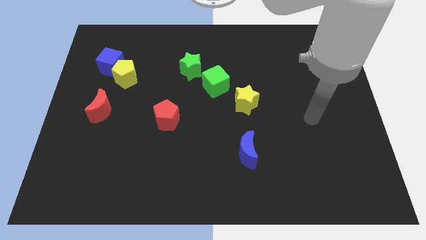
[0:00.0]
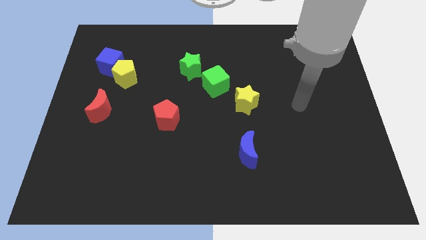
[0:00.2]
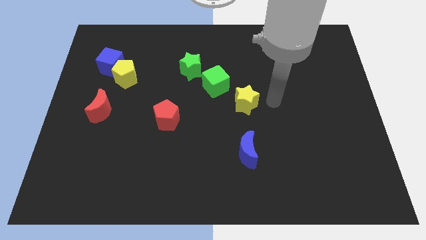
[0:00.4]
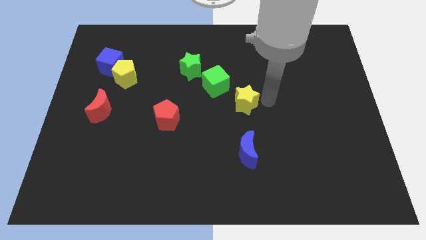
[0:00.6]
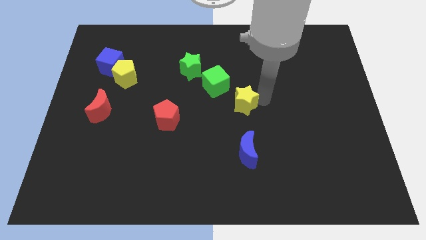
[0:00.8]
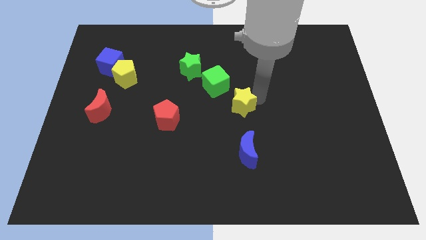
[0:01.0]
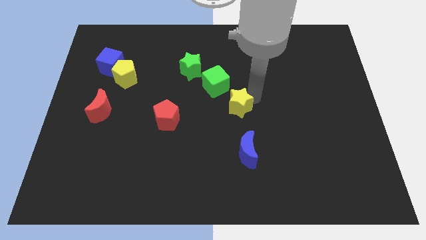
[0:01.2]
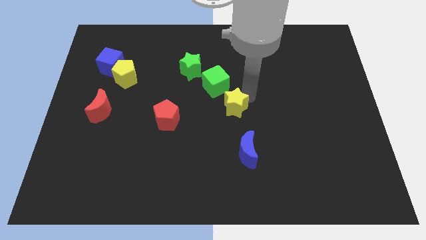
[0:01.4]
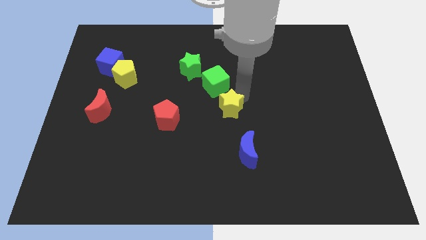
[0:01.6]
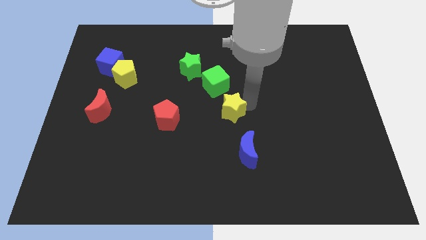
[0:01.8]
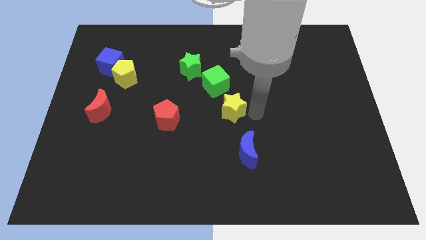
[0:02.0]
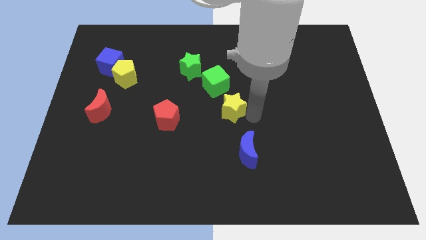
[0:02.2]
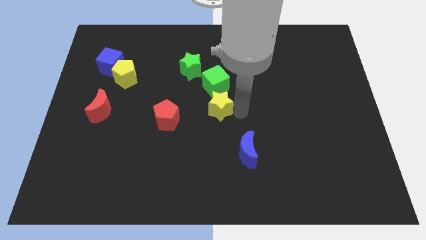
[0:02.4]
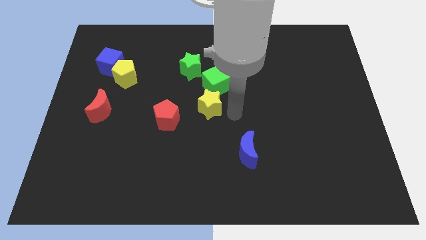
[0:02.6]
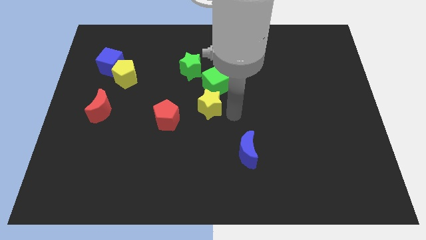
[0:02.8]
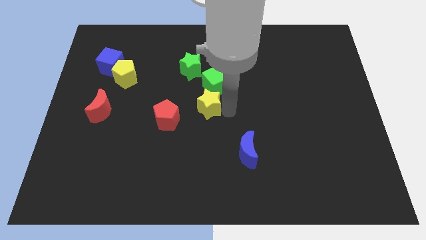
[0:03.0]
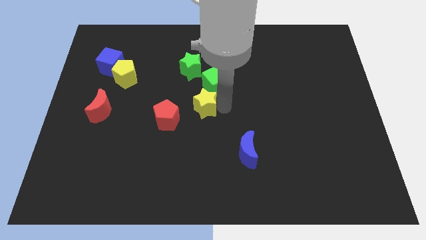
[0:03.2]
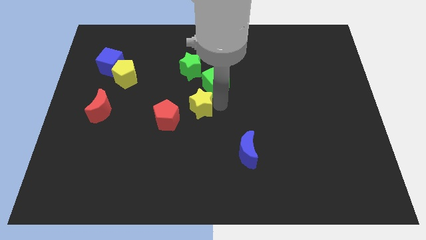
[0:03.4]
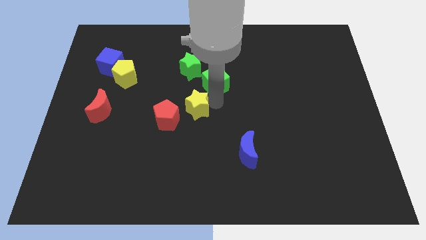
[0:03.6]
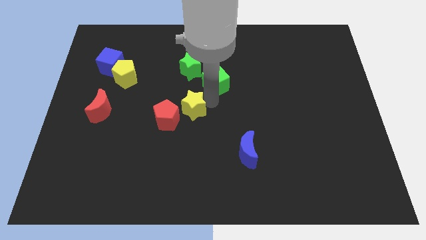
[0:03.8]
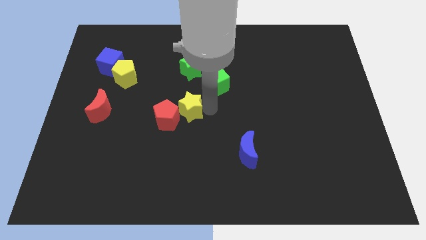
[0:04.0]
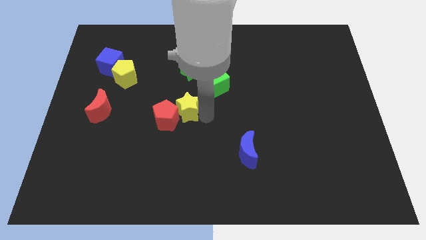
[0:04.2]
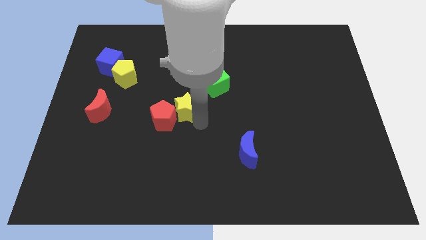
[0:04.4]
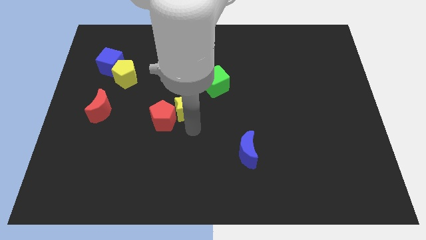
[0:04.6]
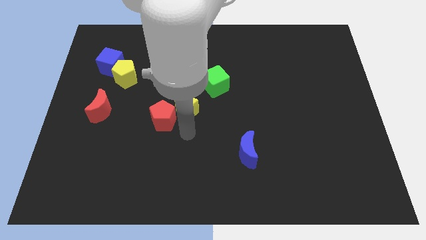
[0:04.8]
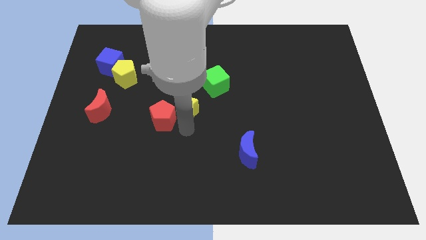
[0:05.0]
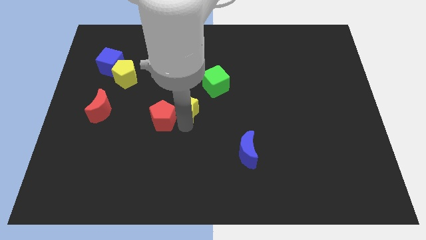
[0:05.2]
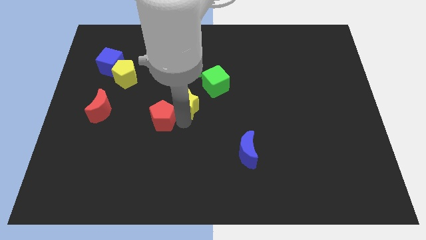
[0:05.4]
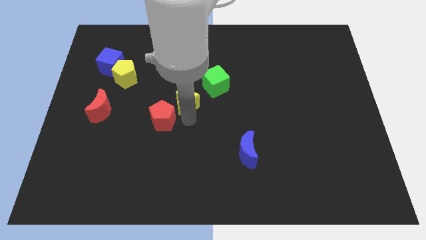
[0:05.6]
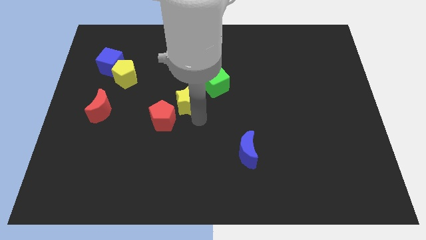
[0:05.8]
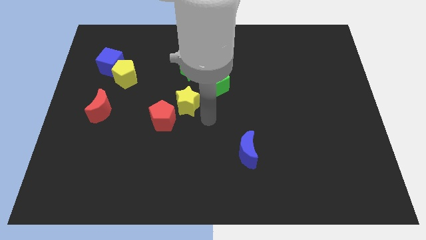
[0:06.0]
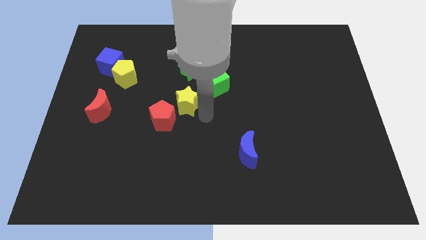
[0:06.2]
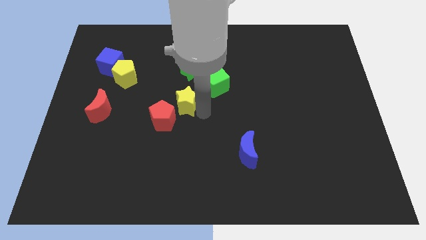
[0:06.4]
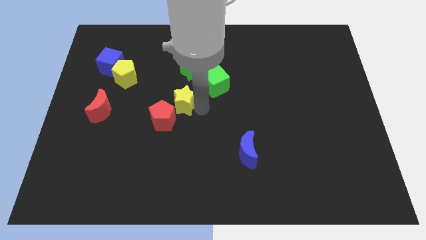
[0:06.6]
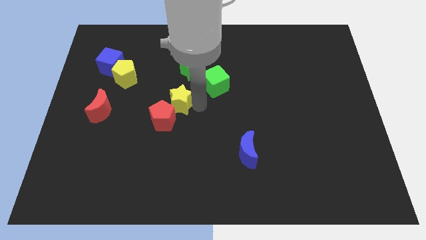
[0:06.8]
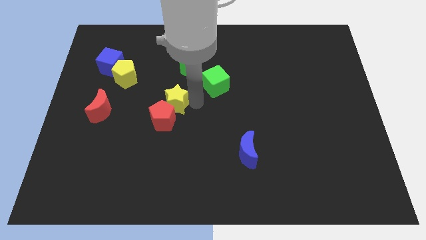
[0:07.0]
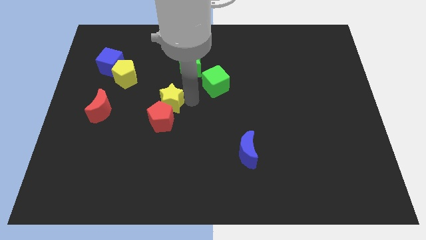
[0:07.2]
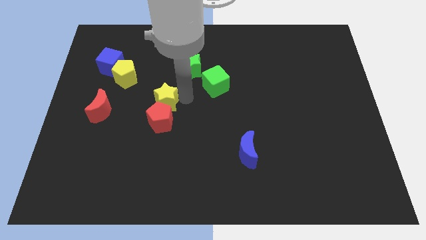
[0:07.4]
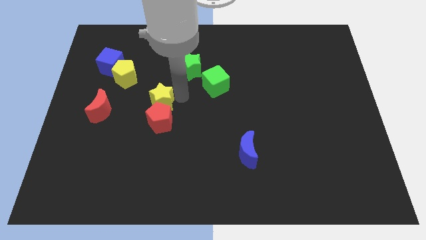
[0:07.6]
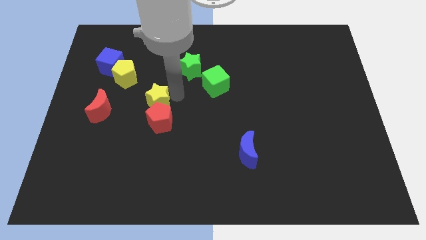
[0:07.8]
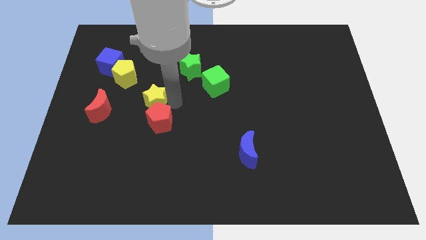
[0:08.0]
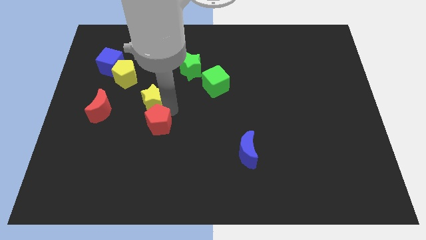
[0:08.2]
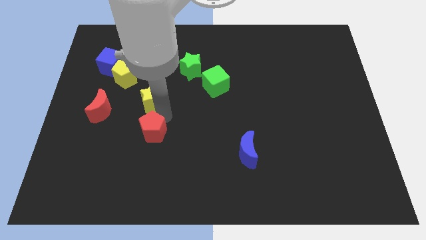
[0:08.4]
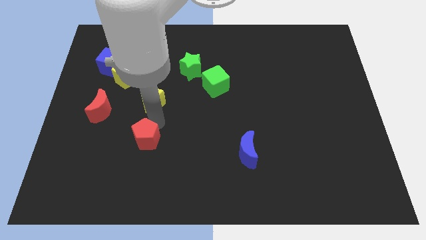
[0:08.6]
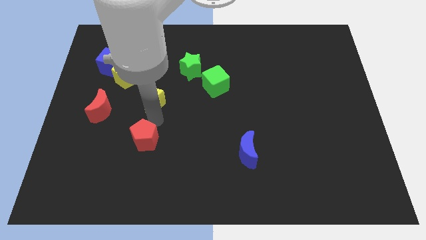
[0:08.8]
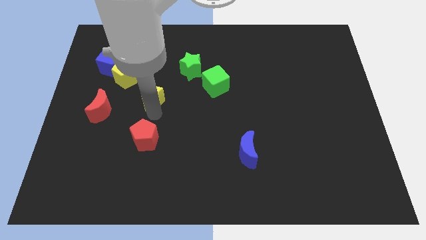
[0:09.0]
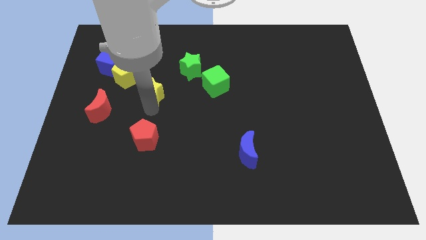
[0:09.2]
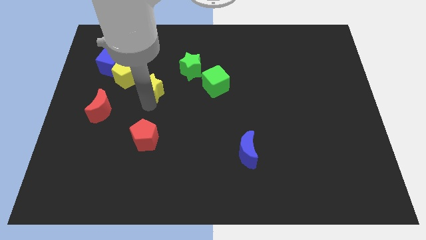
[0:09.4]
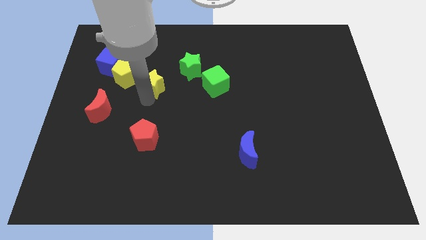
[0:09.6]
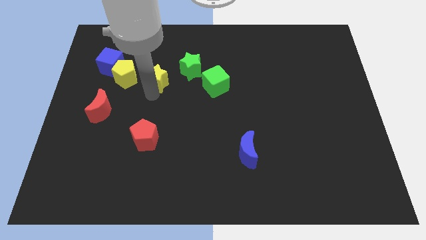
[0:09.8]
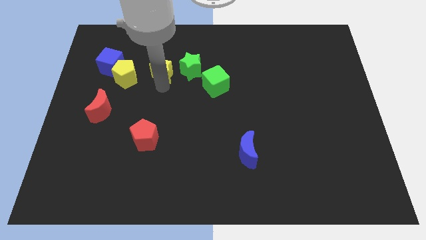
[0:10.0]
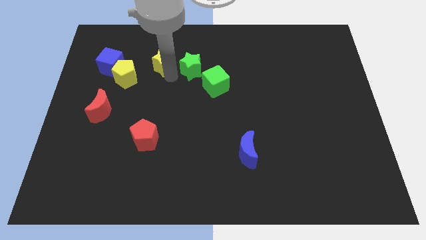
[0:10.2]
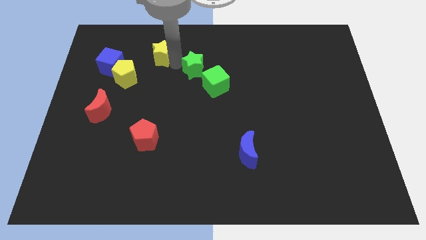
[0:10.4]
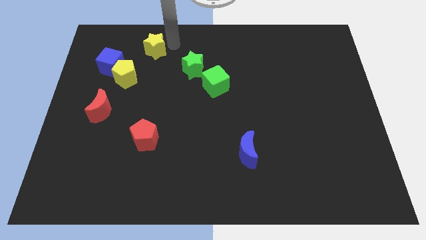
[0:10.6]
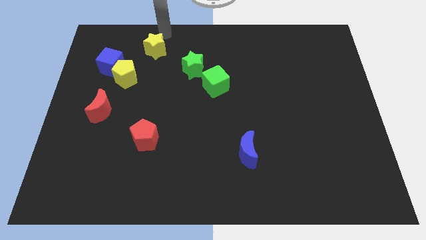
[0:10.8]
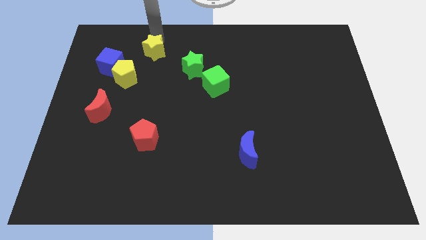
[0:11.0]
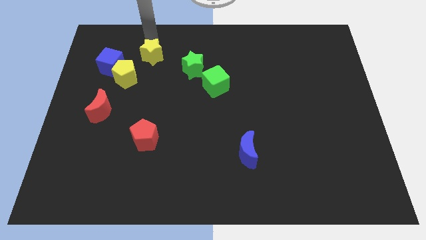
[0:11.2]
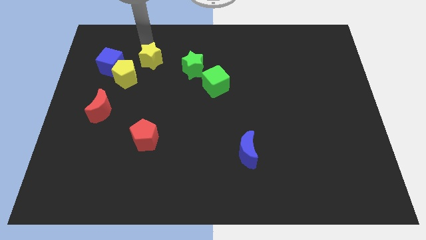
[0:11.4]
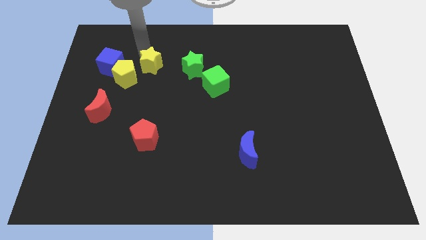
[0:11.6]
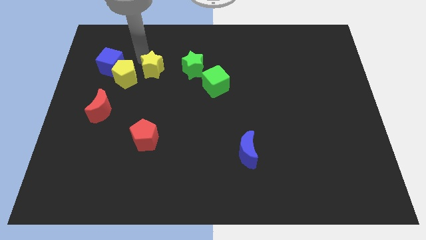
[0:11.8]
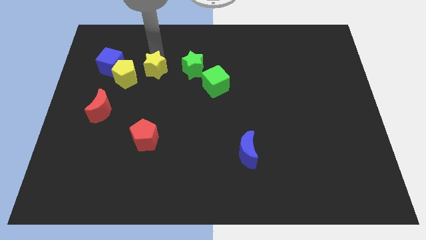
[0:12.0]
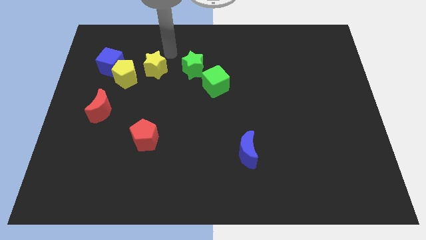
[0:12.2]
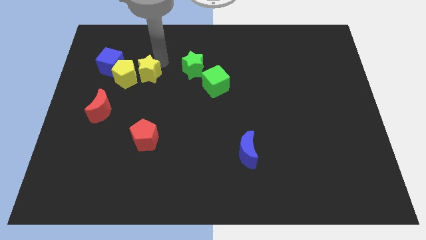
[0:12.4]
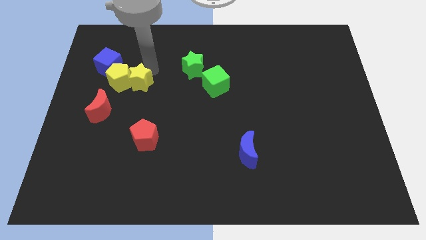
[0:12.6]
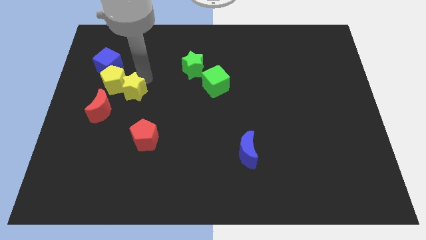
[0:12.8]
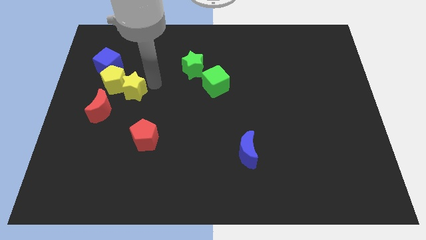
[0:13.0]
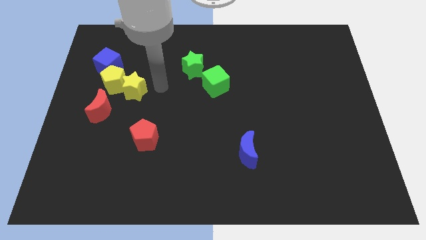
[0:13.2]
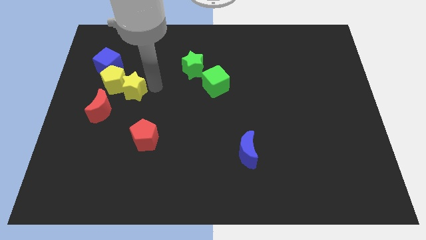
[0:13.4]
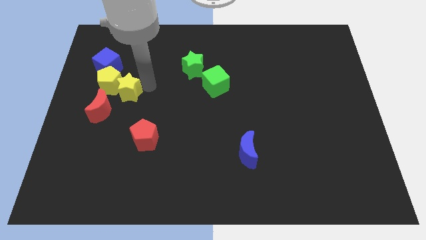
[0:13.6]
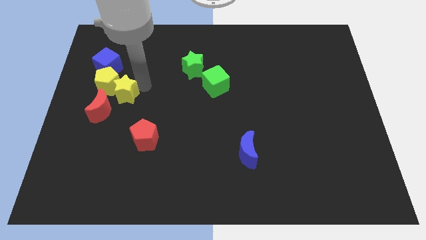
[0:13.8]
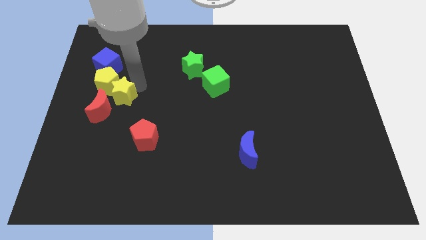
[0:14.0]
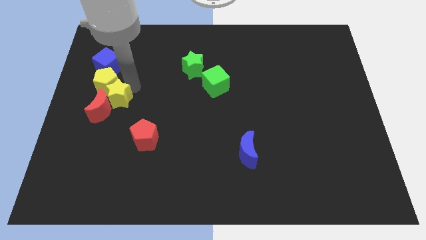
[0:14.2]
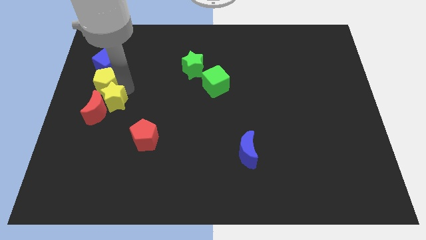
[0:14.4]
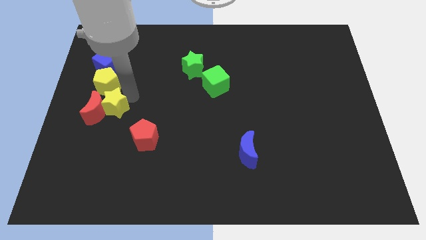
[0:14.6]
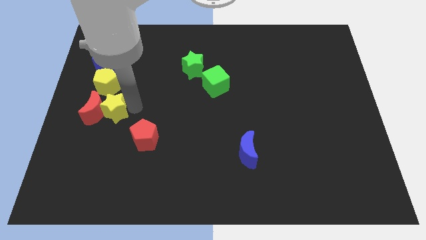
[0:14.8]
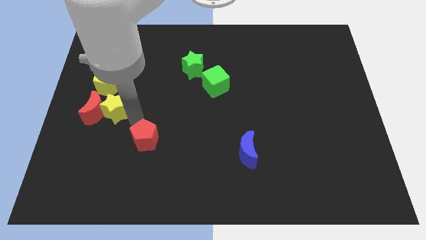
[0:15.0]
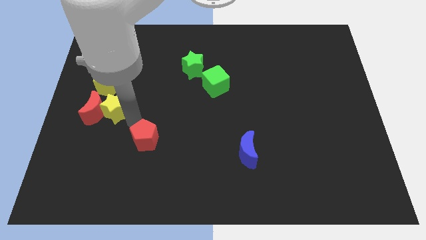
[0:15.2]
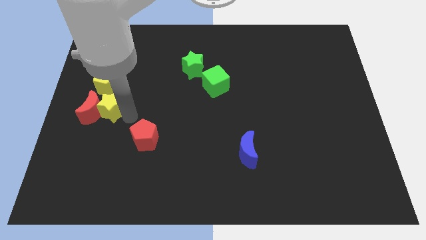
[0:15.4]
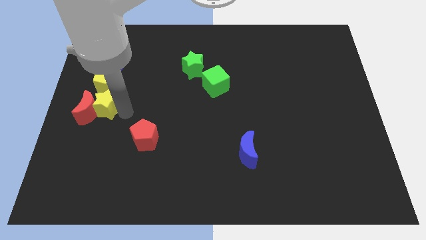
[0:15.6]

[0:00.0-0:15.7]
move the yellow star to the left side of the board
